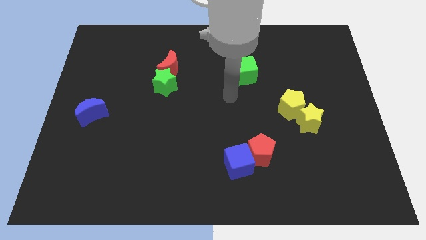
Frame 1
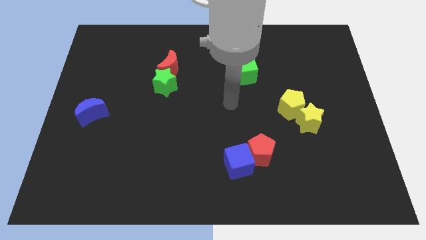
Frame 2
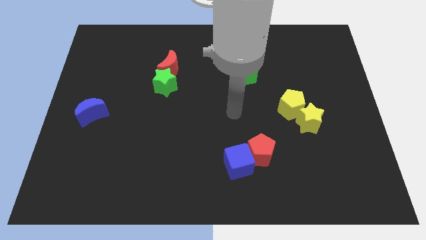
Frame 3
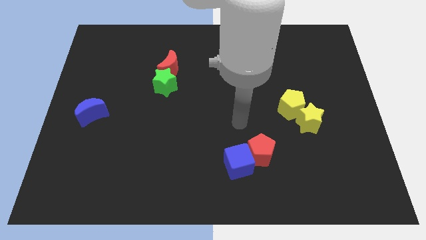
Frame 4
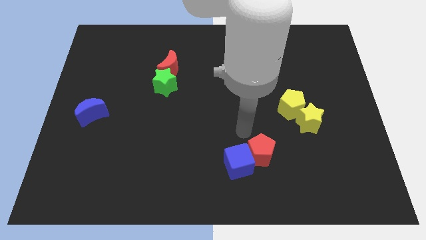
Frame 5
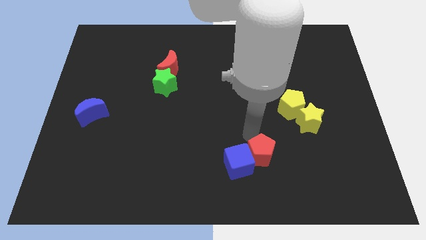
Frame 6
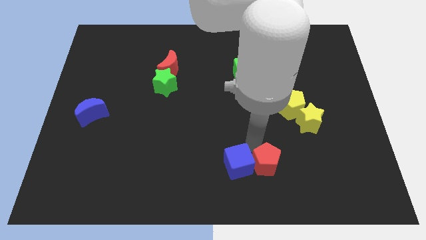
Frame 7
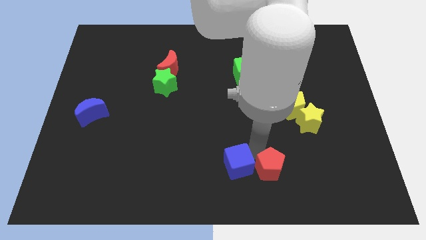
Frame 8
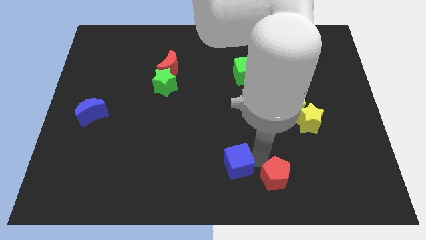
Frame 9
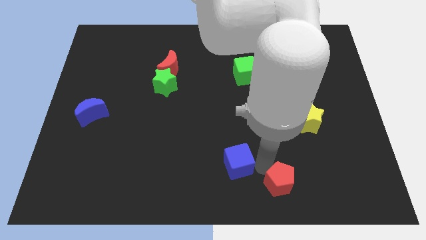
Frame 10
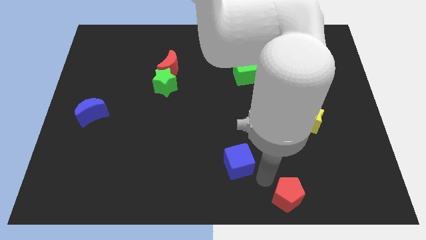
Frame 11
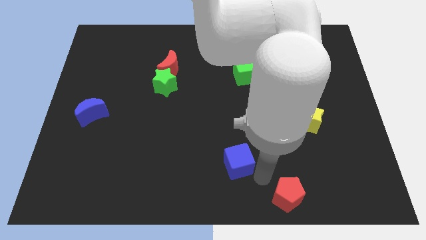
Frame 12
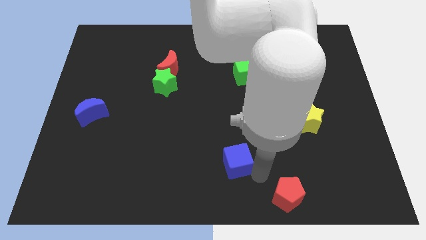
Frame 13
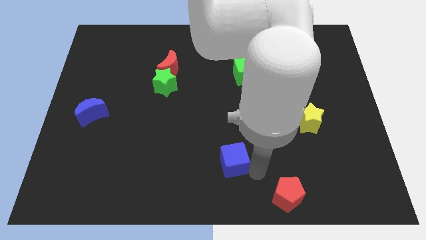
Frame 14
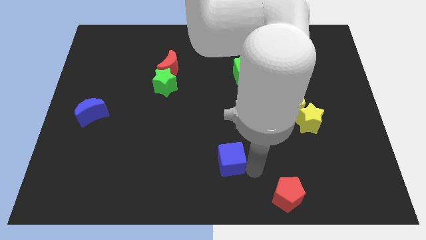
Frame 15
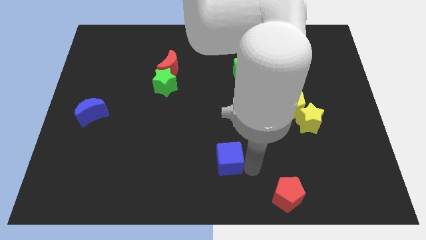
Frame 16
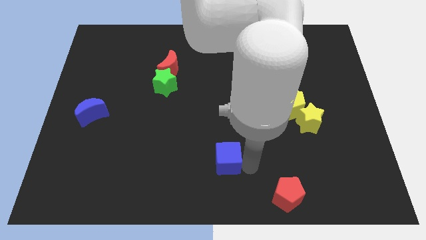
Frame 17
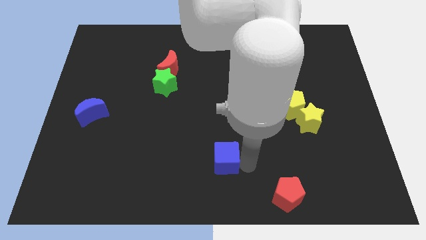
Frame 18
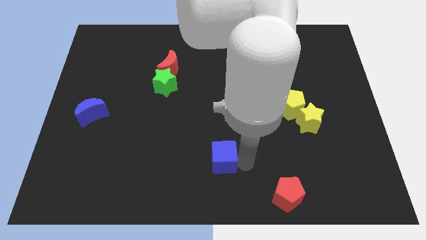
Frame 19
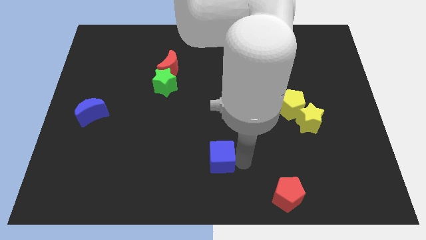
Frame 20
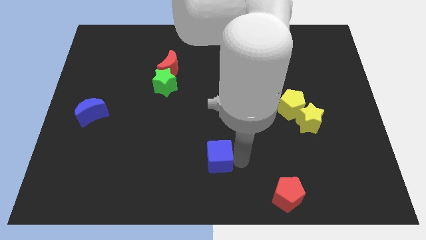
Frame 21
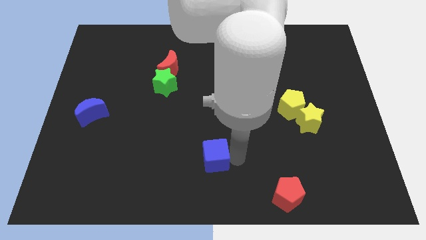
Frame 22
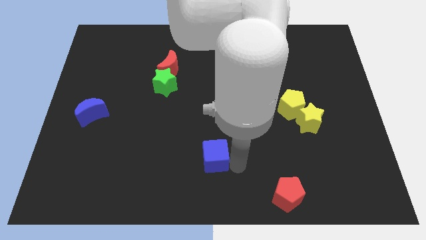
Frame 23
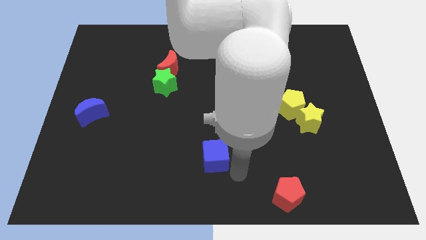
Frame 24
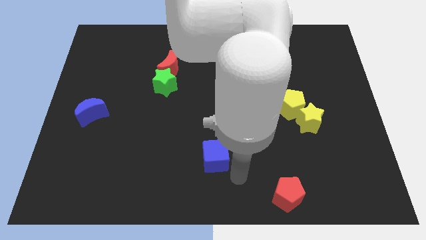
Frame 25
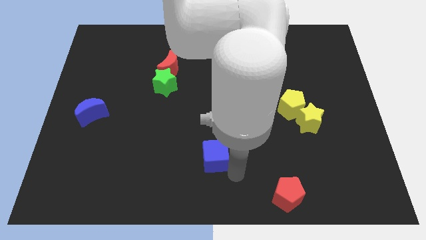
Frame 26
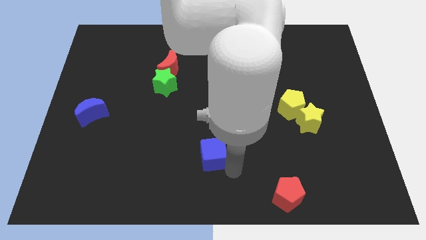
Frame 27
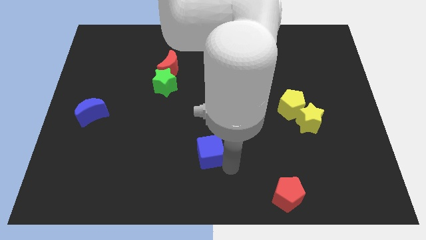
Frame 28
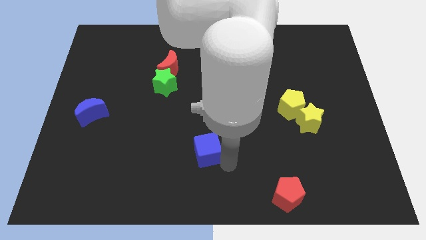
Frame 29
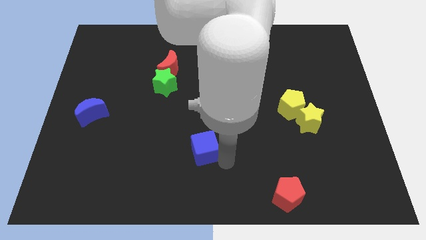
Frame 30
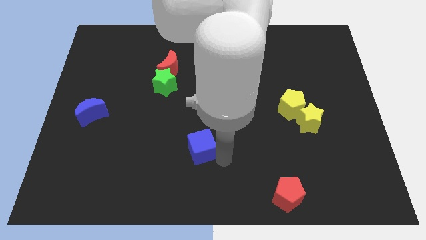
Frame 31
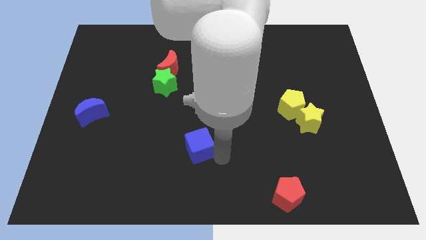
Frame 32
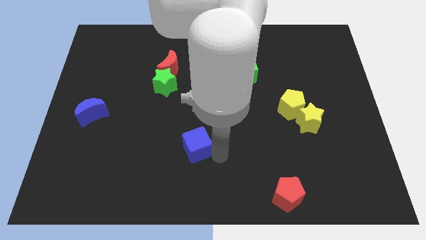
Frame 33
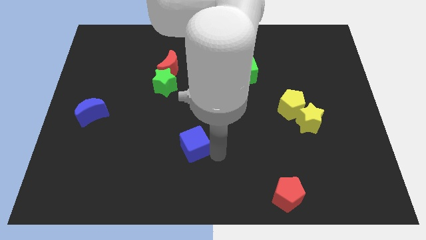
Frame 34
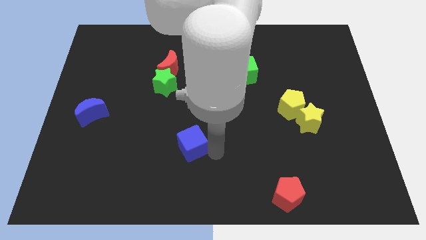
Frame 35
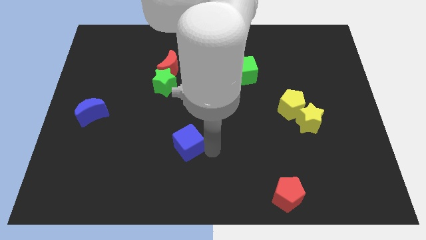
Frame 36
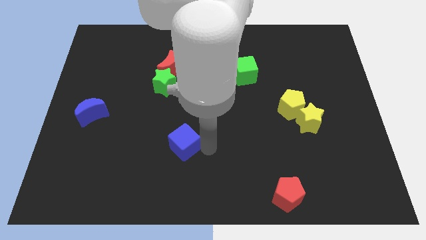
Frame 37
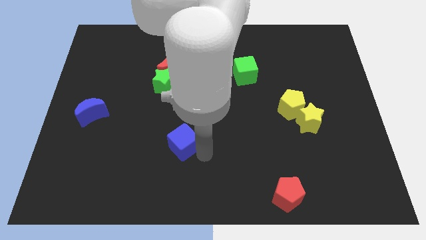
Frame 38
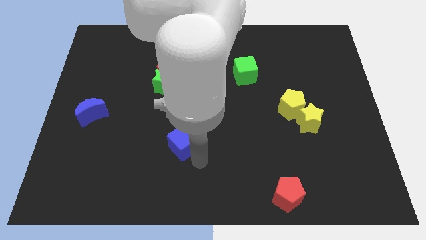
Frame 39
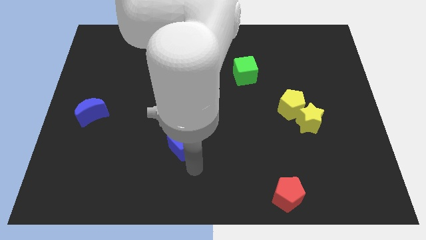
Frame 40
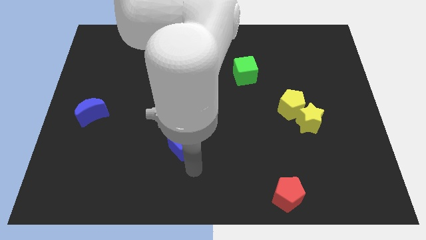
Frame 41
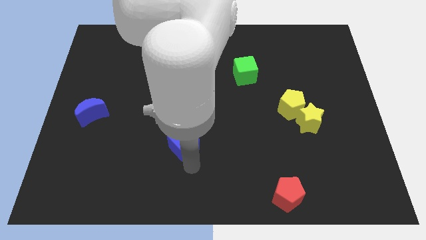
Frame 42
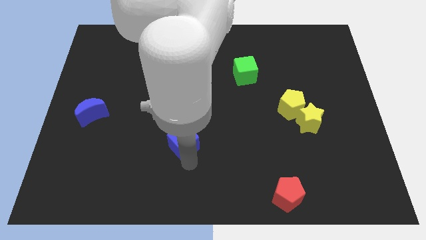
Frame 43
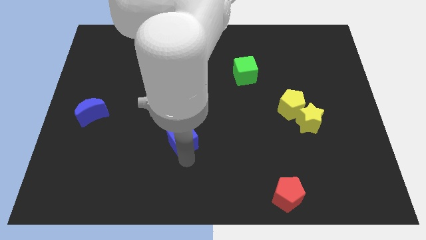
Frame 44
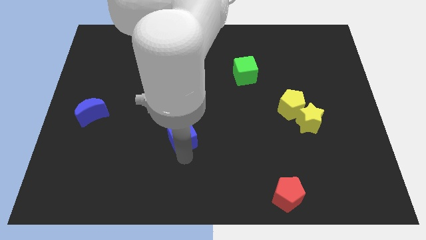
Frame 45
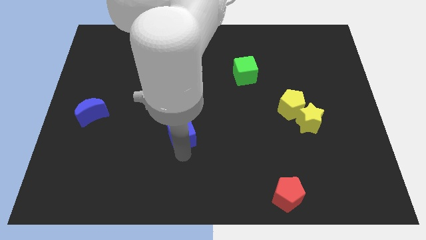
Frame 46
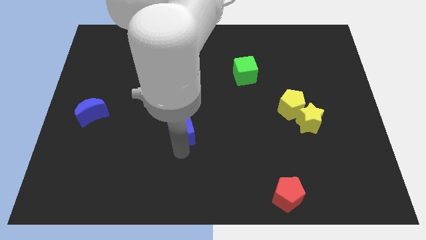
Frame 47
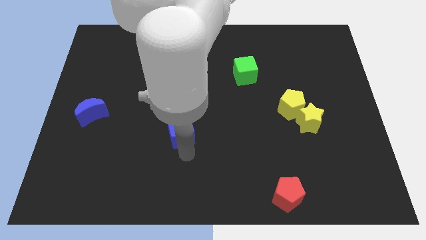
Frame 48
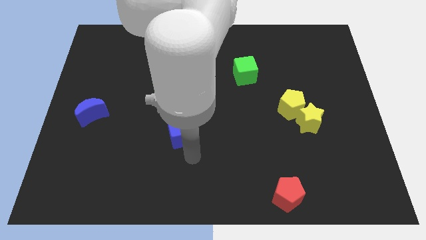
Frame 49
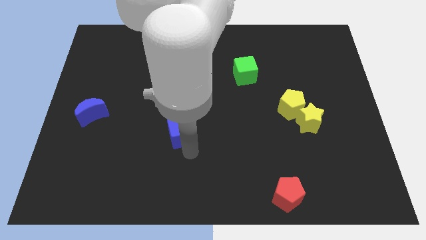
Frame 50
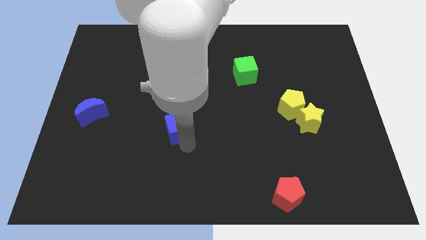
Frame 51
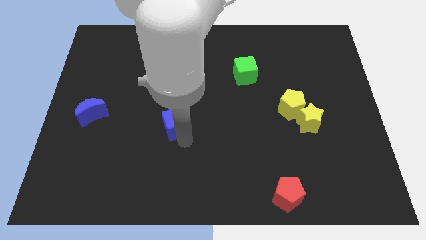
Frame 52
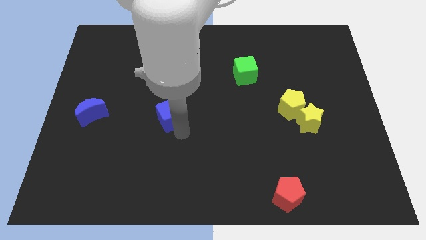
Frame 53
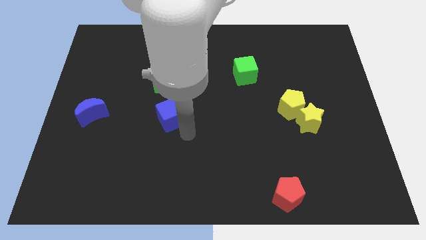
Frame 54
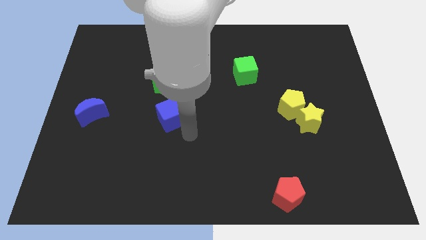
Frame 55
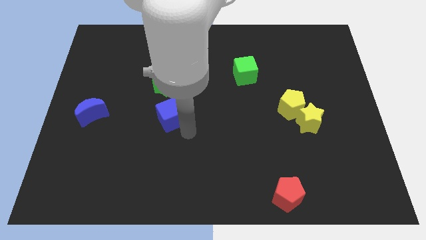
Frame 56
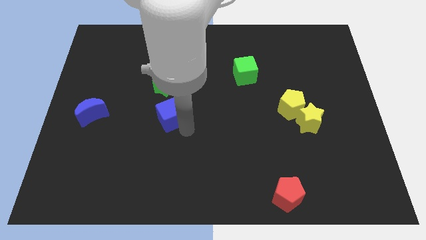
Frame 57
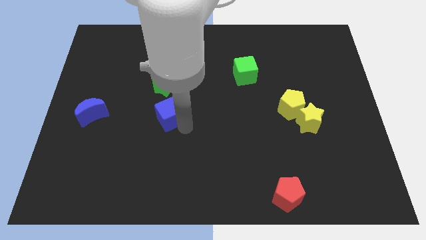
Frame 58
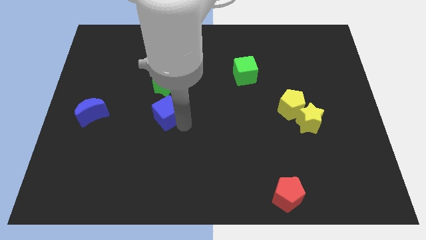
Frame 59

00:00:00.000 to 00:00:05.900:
push the blue cube upwards and then to the left

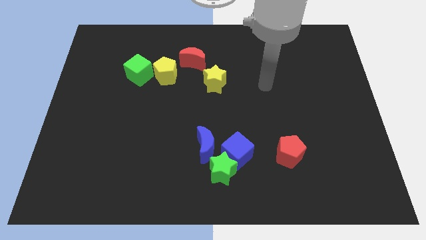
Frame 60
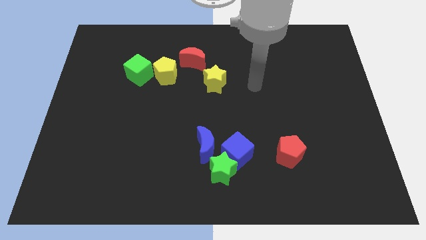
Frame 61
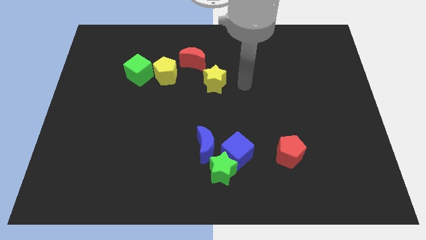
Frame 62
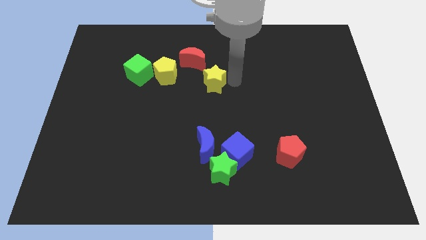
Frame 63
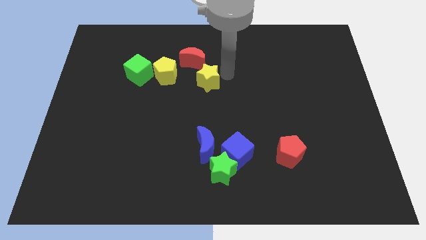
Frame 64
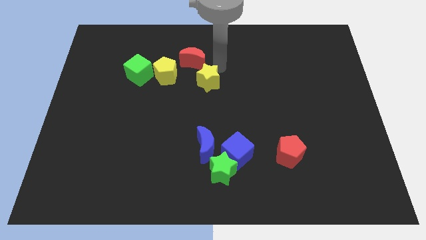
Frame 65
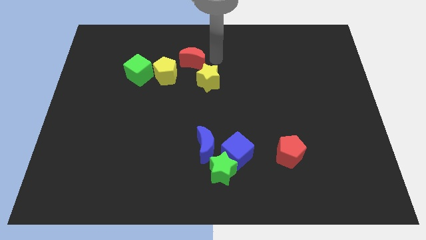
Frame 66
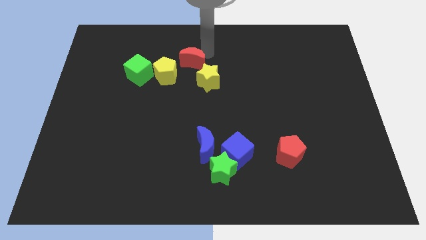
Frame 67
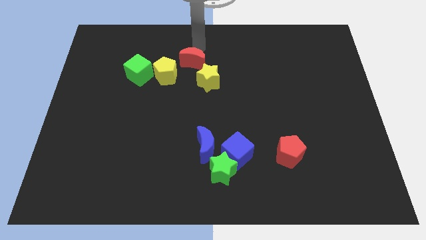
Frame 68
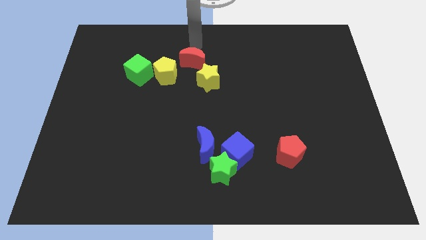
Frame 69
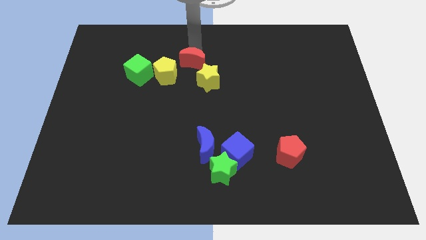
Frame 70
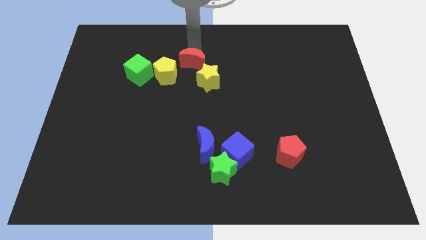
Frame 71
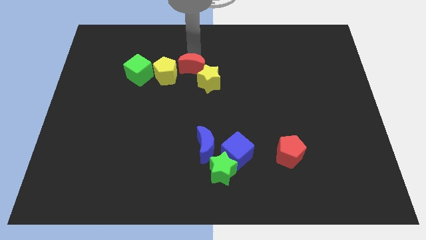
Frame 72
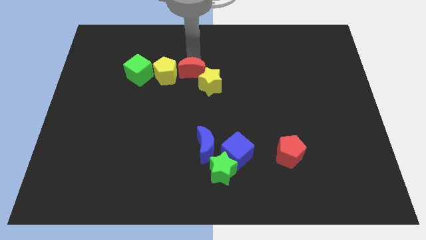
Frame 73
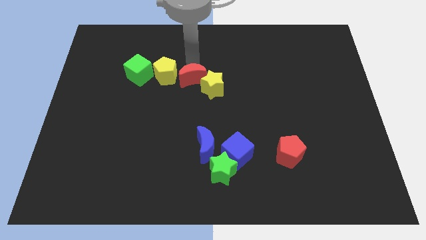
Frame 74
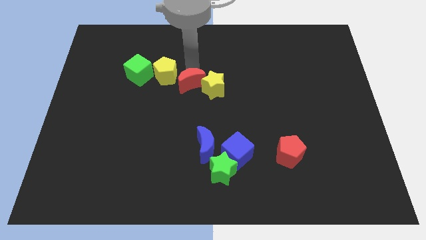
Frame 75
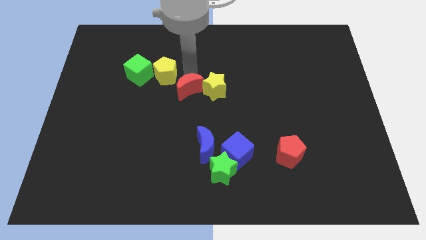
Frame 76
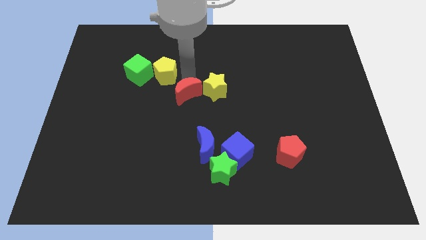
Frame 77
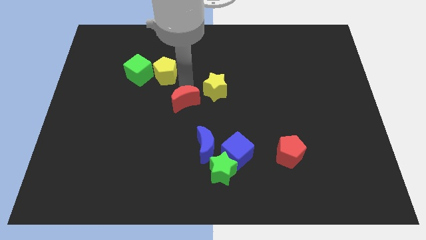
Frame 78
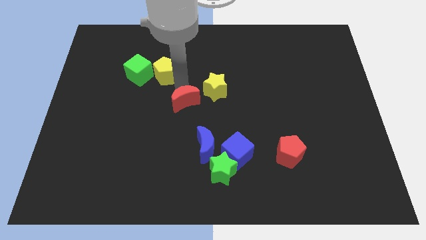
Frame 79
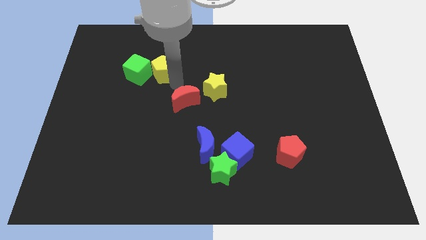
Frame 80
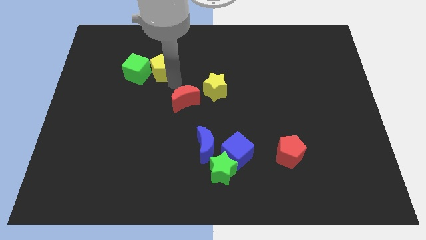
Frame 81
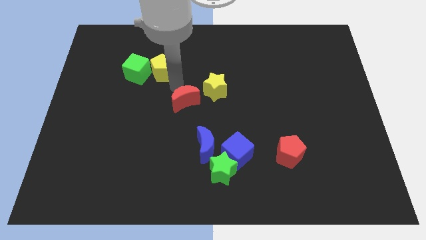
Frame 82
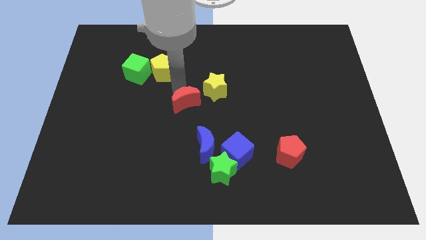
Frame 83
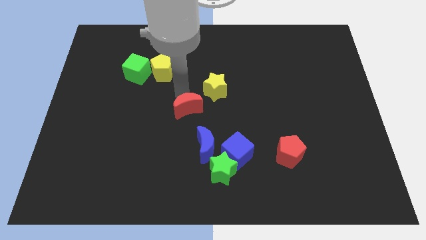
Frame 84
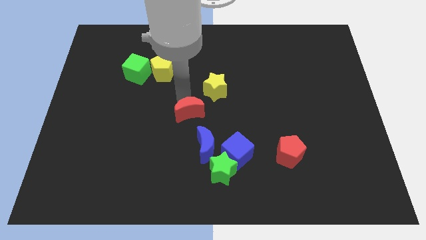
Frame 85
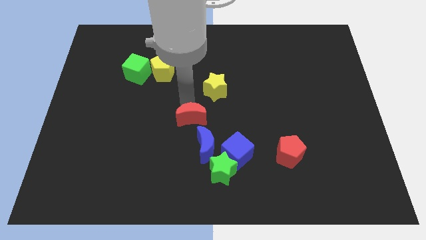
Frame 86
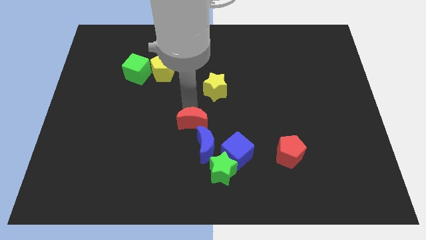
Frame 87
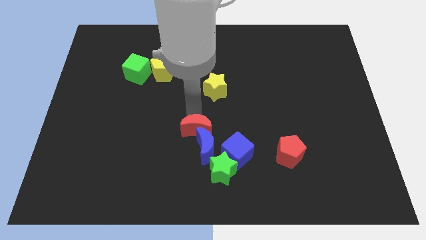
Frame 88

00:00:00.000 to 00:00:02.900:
move the red moon down
